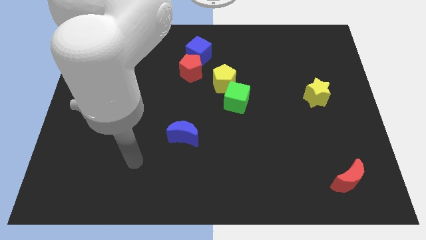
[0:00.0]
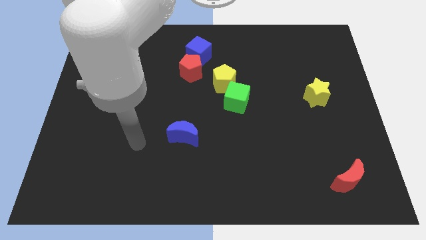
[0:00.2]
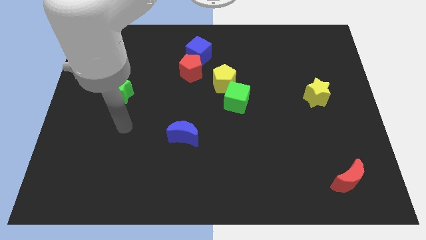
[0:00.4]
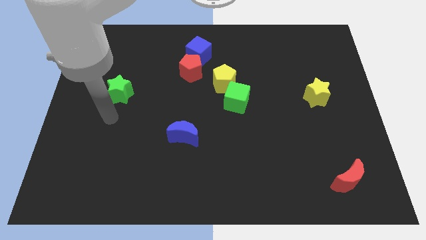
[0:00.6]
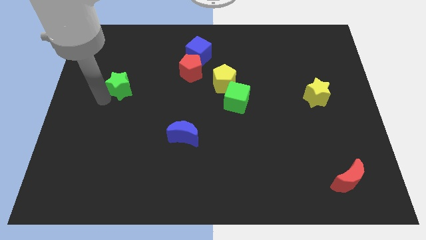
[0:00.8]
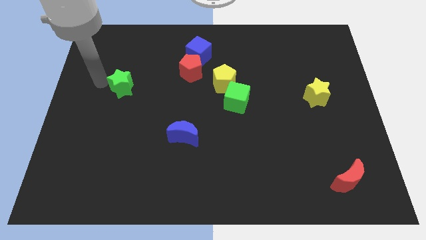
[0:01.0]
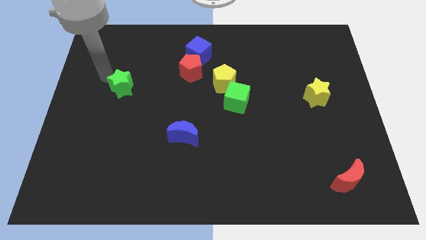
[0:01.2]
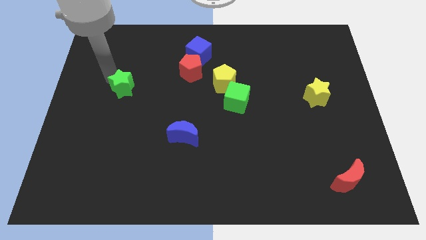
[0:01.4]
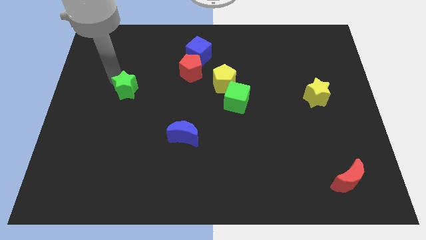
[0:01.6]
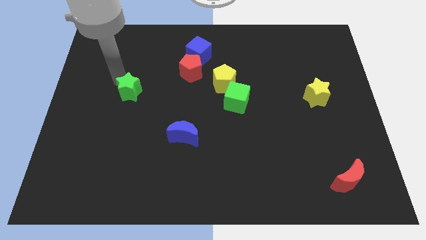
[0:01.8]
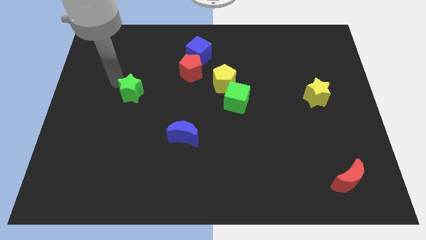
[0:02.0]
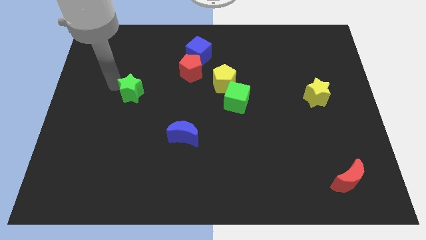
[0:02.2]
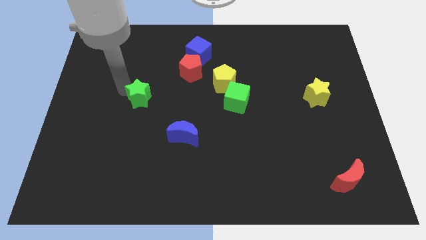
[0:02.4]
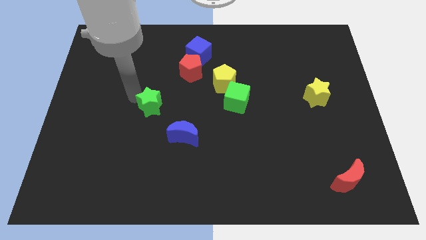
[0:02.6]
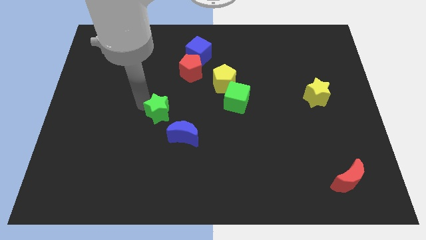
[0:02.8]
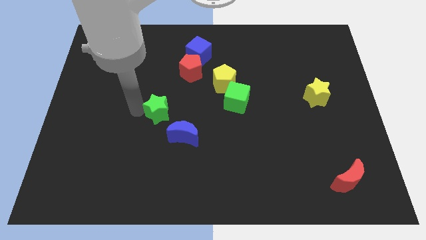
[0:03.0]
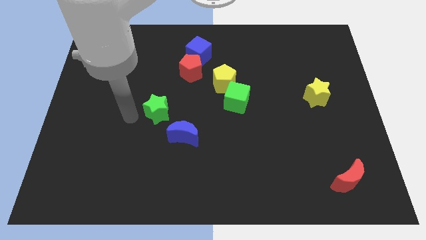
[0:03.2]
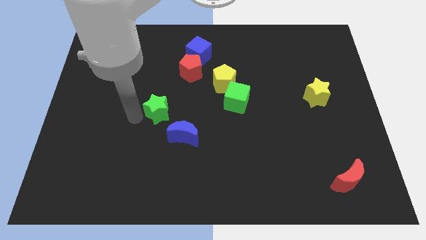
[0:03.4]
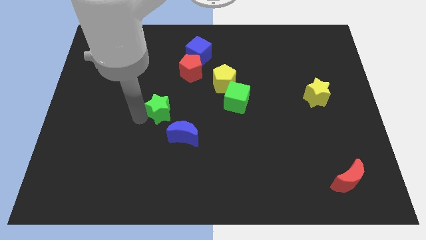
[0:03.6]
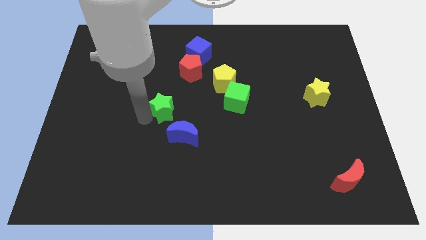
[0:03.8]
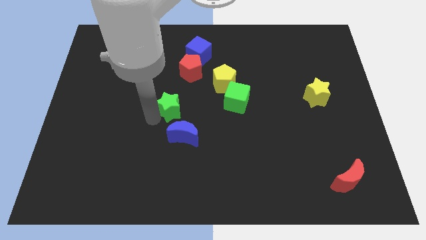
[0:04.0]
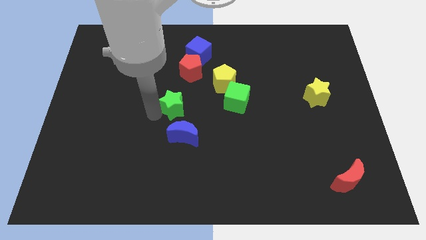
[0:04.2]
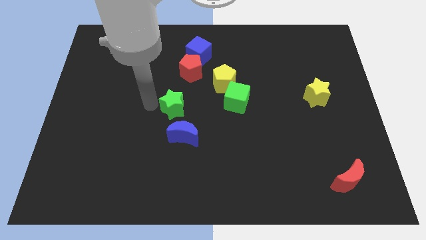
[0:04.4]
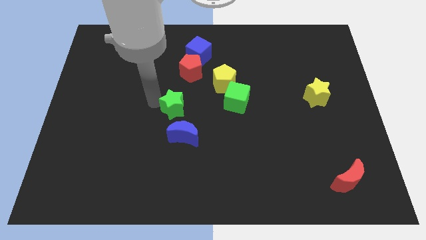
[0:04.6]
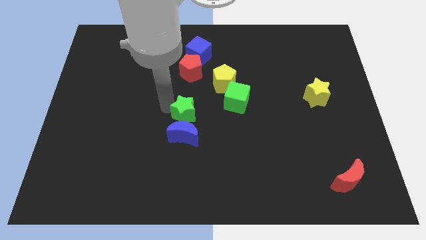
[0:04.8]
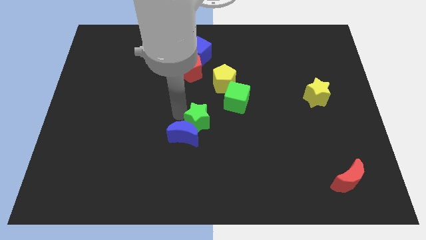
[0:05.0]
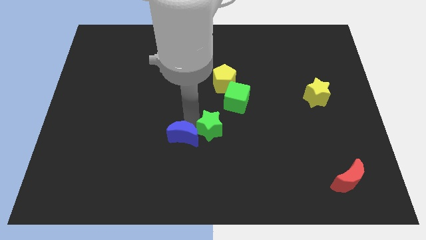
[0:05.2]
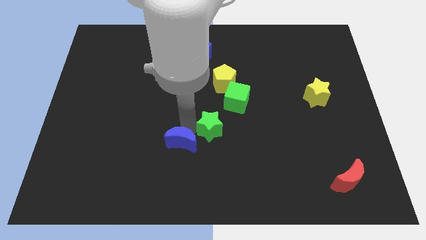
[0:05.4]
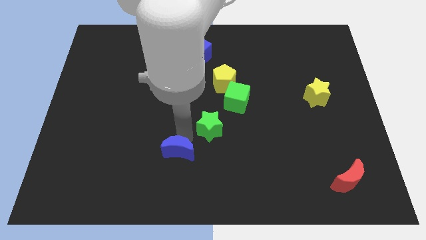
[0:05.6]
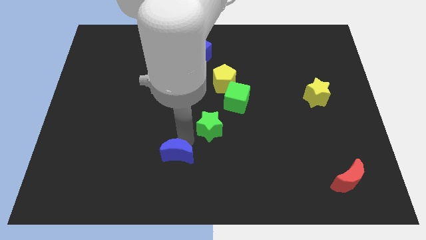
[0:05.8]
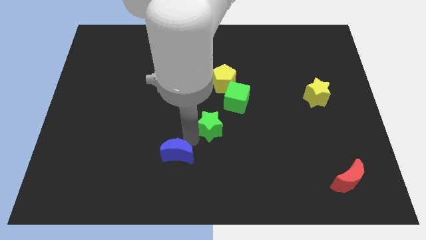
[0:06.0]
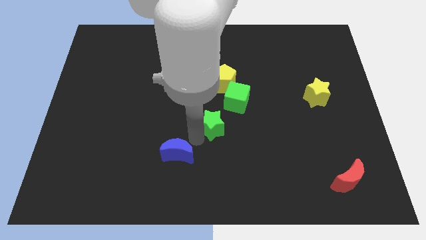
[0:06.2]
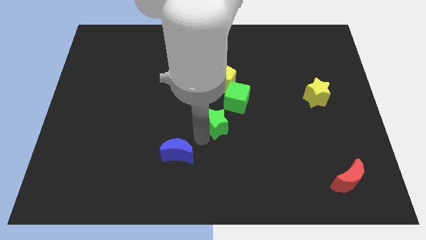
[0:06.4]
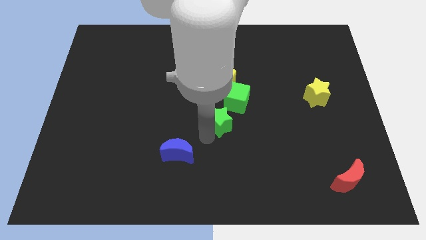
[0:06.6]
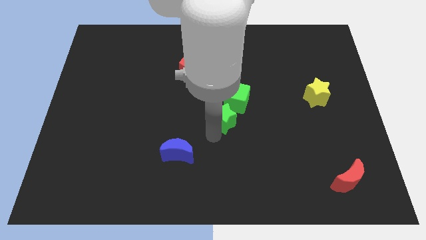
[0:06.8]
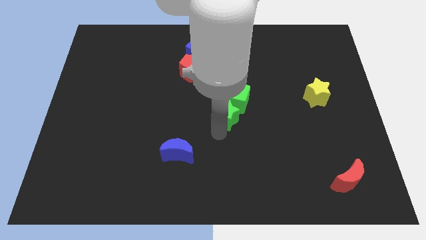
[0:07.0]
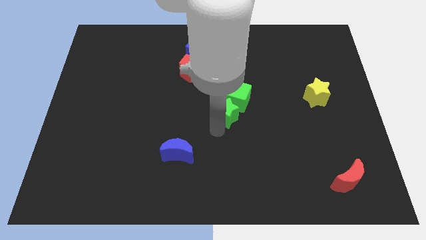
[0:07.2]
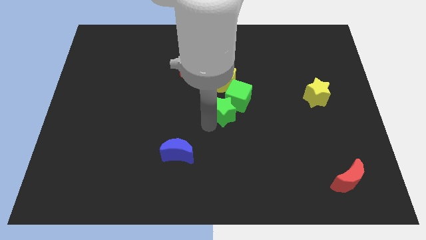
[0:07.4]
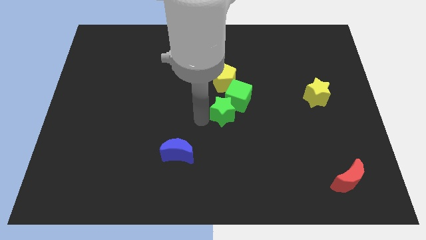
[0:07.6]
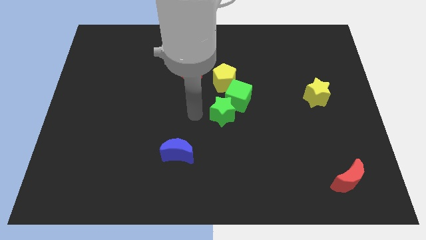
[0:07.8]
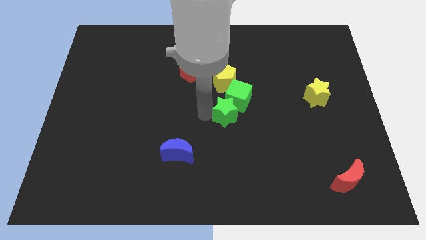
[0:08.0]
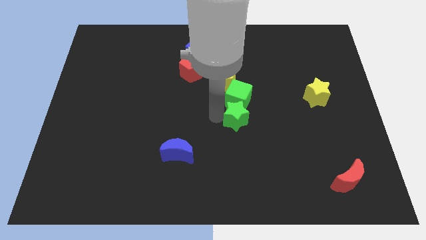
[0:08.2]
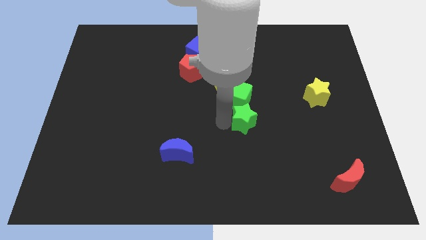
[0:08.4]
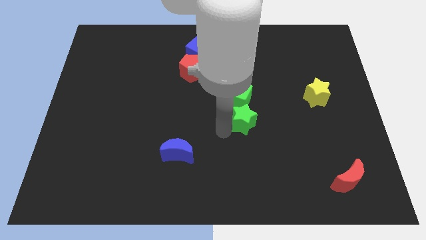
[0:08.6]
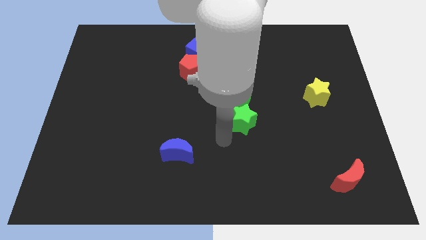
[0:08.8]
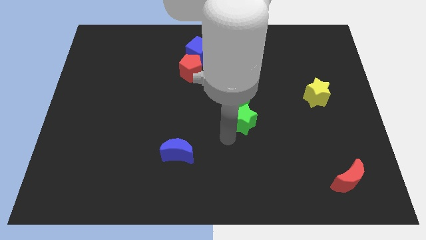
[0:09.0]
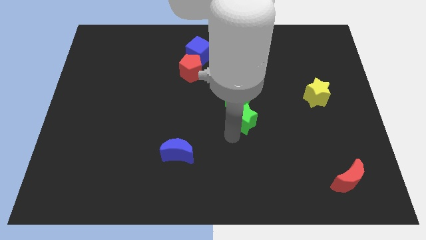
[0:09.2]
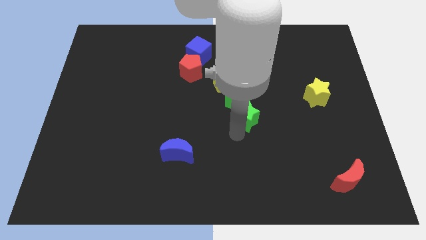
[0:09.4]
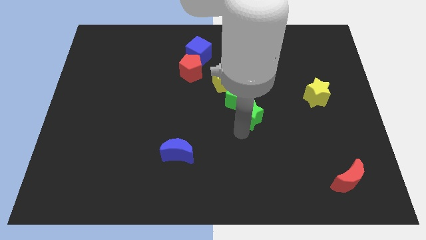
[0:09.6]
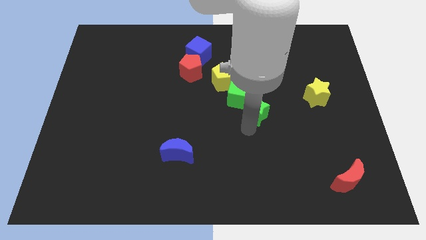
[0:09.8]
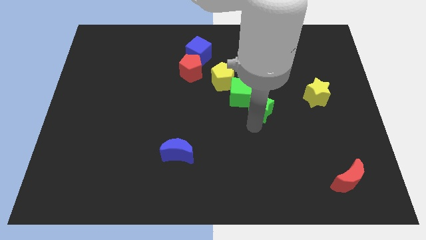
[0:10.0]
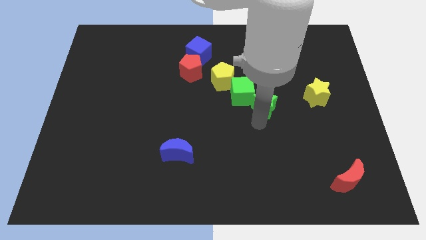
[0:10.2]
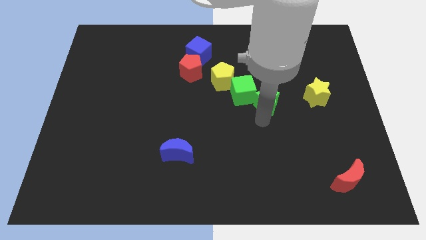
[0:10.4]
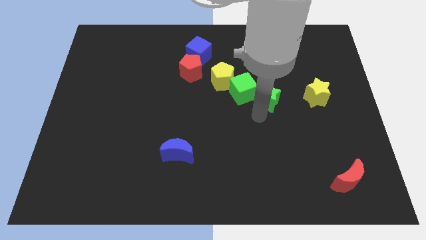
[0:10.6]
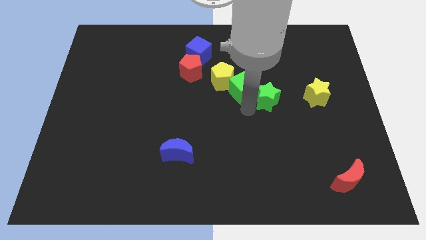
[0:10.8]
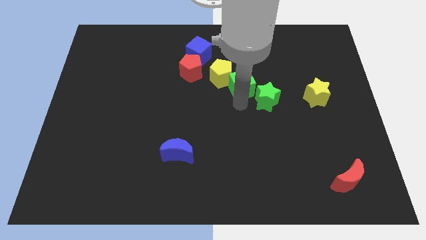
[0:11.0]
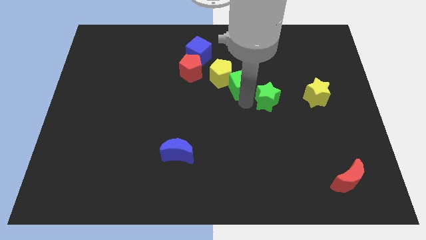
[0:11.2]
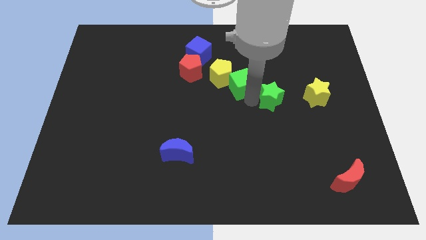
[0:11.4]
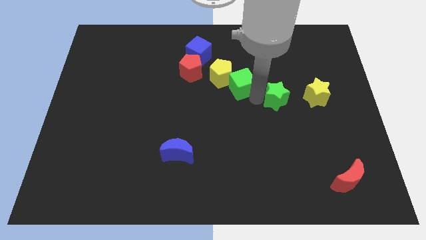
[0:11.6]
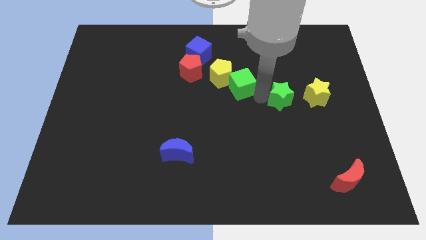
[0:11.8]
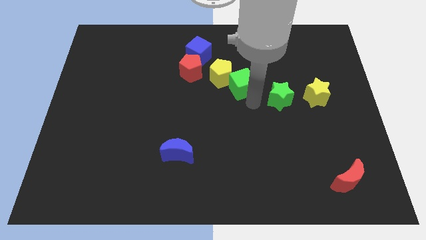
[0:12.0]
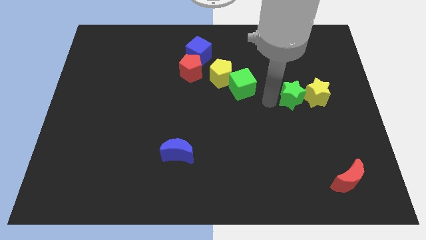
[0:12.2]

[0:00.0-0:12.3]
move the green star towards the yellow star

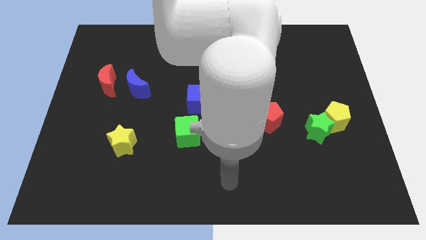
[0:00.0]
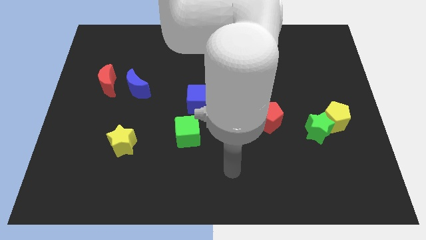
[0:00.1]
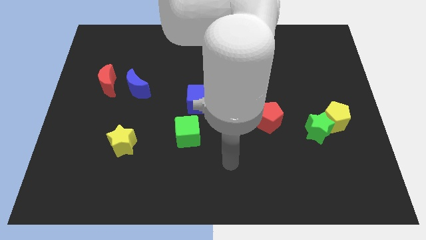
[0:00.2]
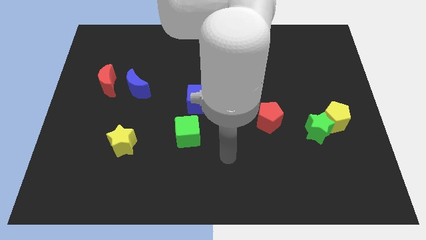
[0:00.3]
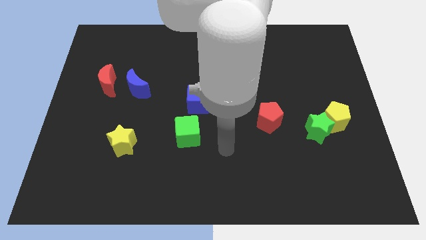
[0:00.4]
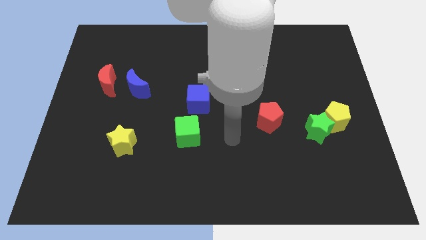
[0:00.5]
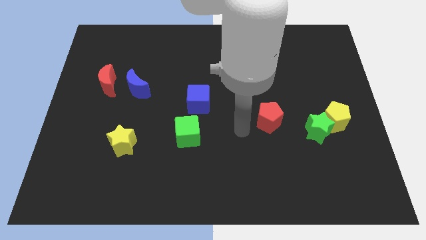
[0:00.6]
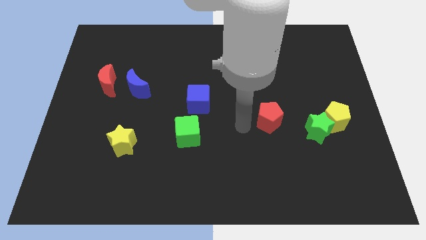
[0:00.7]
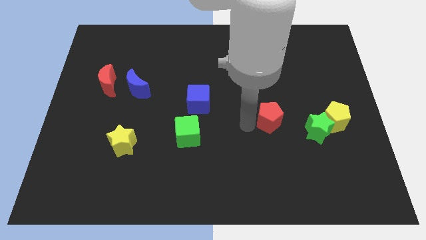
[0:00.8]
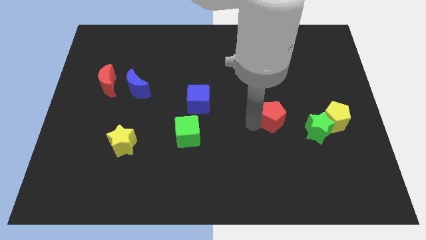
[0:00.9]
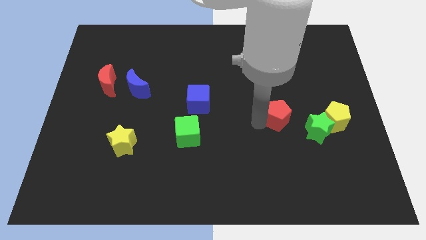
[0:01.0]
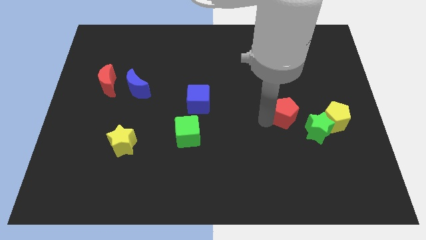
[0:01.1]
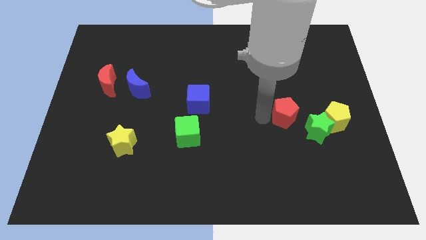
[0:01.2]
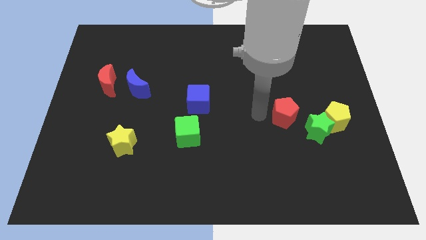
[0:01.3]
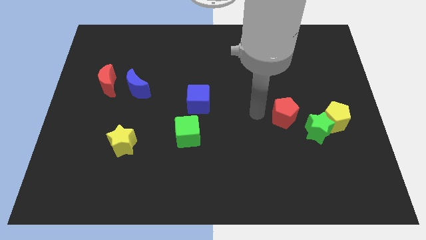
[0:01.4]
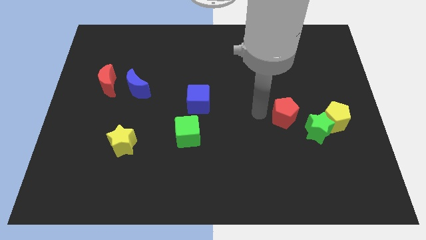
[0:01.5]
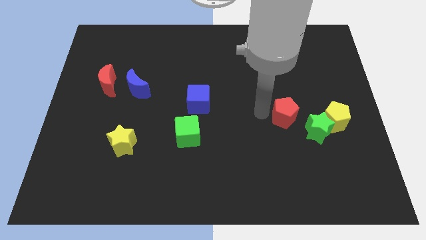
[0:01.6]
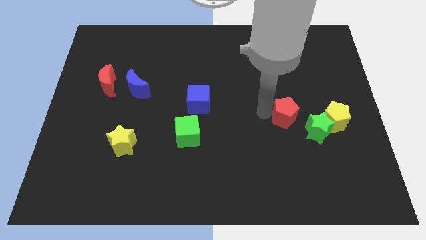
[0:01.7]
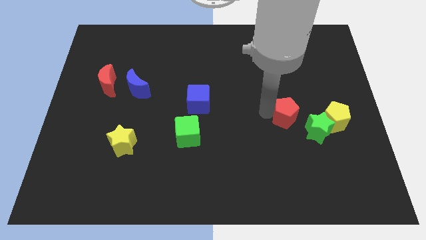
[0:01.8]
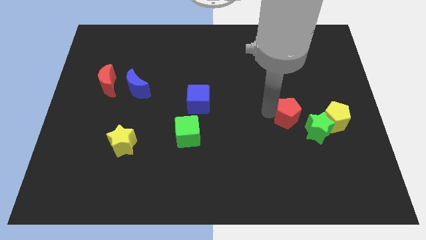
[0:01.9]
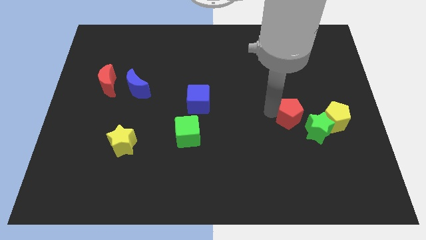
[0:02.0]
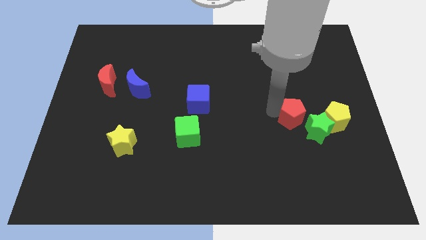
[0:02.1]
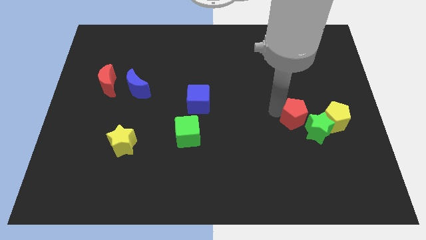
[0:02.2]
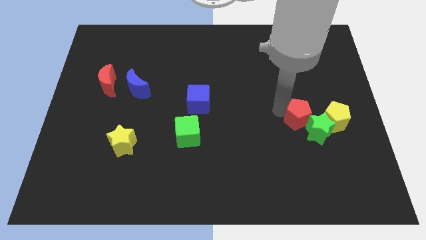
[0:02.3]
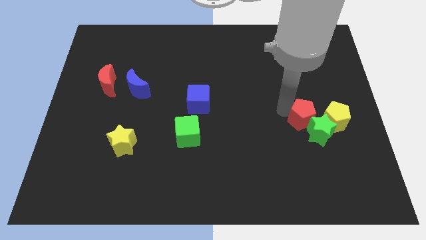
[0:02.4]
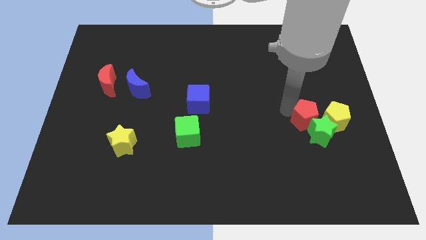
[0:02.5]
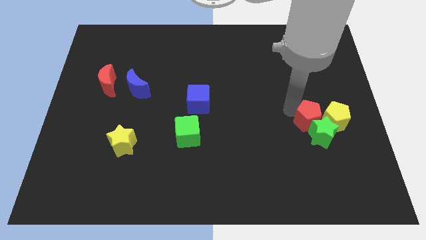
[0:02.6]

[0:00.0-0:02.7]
move the red pentagon to the yellow pentagon
